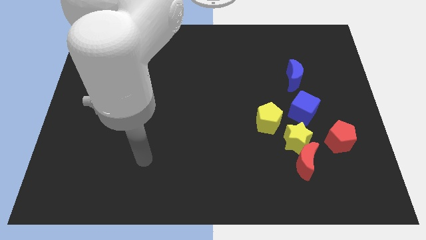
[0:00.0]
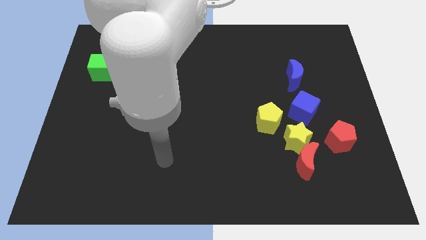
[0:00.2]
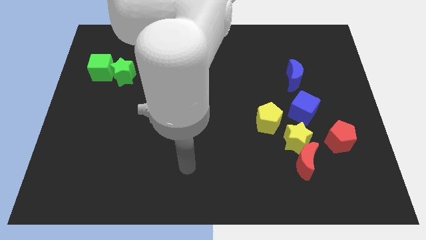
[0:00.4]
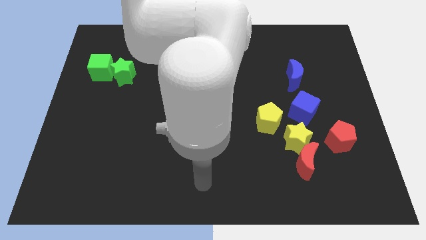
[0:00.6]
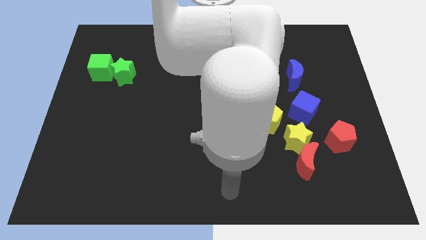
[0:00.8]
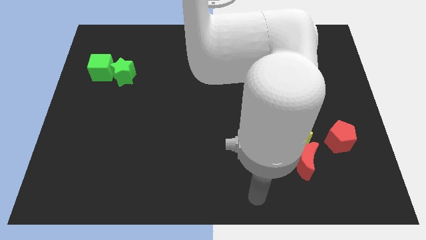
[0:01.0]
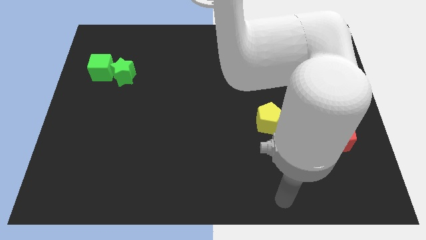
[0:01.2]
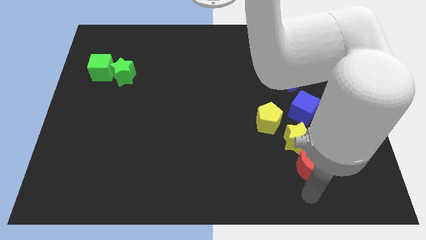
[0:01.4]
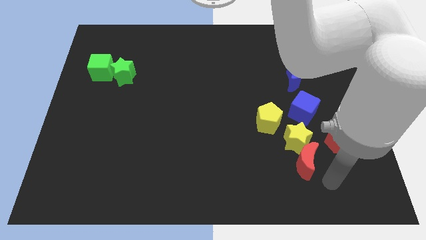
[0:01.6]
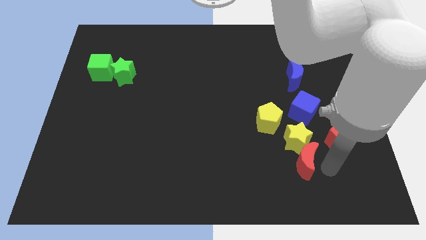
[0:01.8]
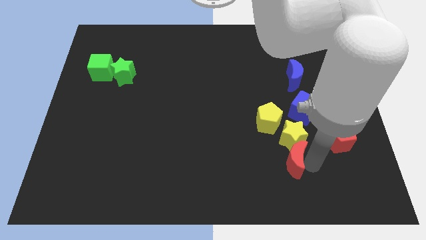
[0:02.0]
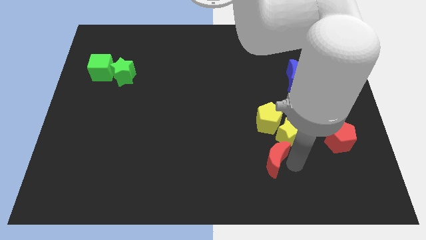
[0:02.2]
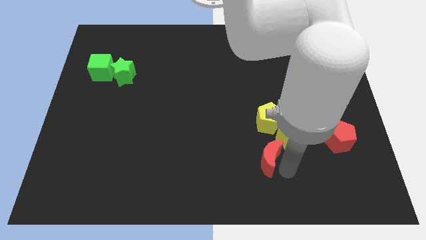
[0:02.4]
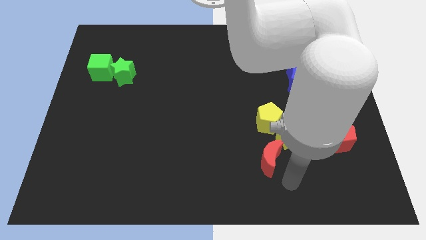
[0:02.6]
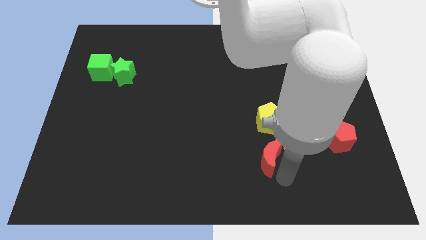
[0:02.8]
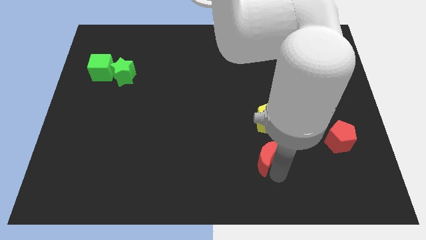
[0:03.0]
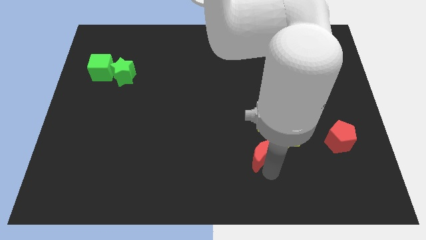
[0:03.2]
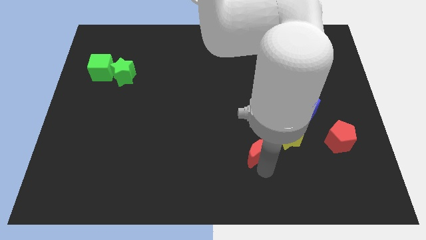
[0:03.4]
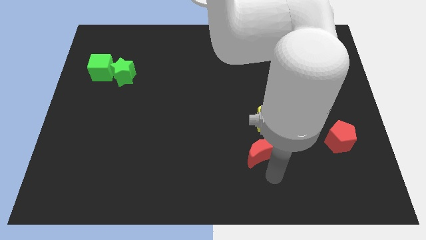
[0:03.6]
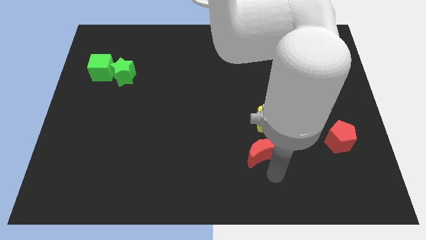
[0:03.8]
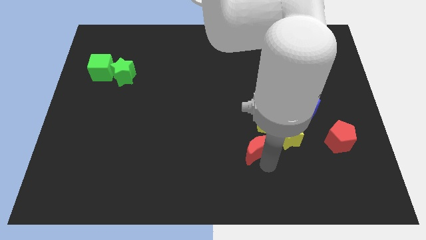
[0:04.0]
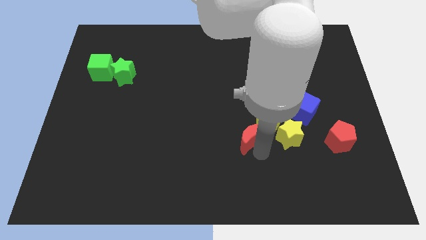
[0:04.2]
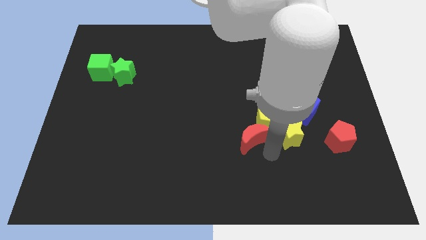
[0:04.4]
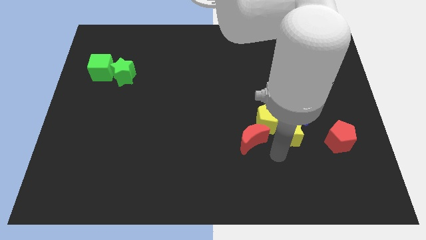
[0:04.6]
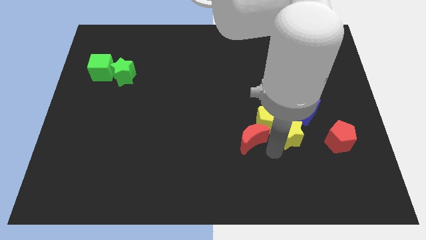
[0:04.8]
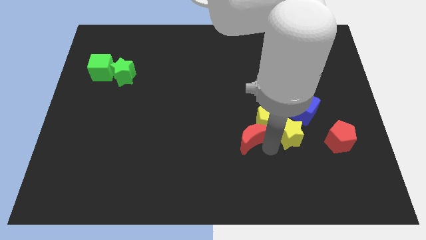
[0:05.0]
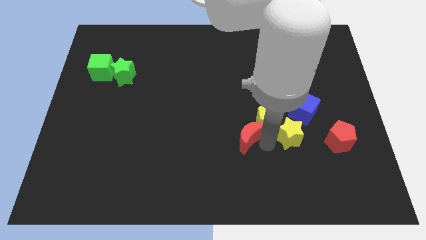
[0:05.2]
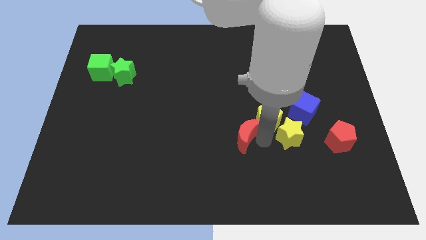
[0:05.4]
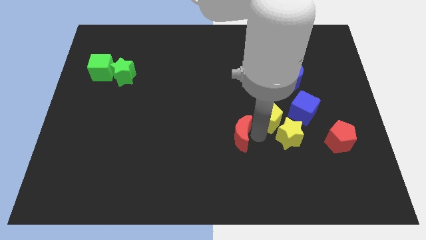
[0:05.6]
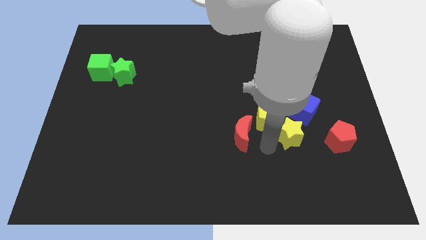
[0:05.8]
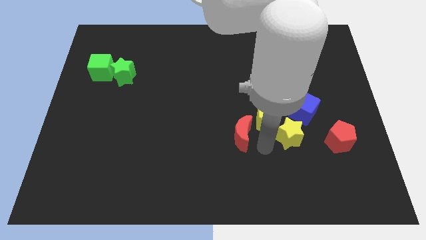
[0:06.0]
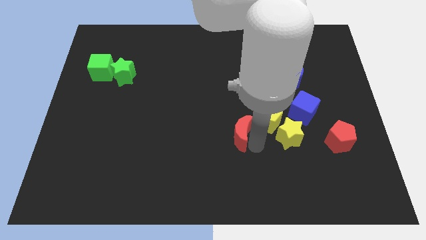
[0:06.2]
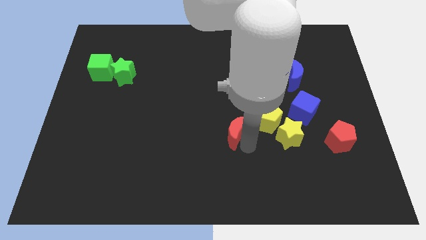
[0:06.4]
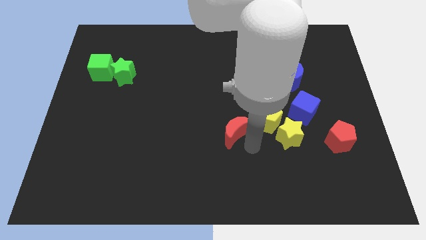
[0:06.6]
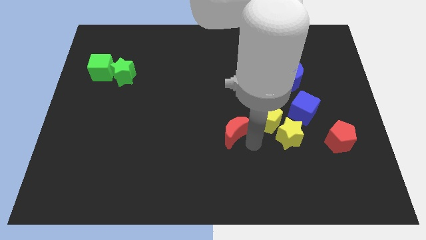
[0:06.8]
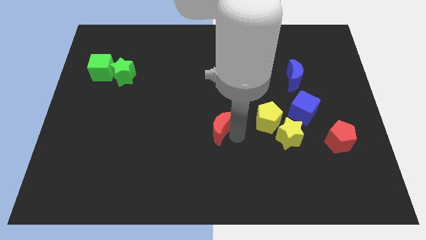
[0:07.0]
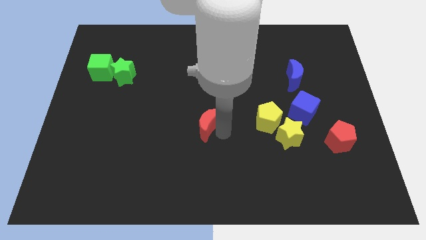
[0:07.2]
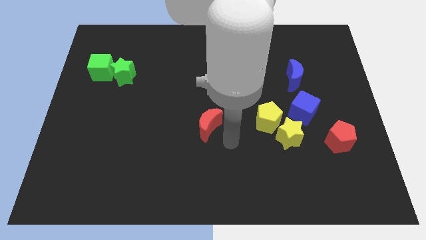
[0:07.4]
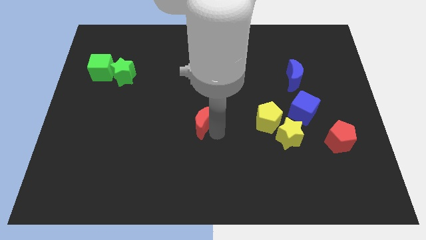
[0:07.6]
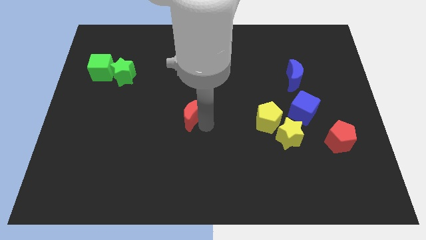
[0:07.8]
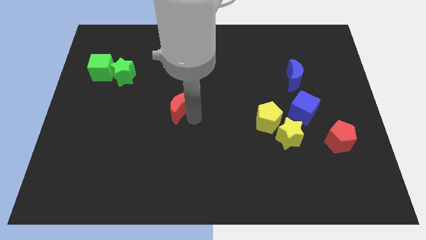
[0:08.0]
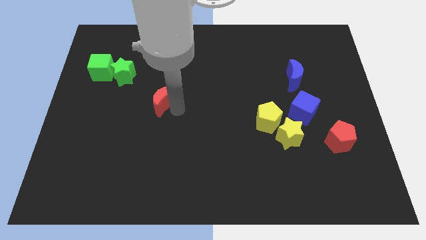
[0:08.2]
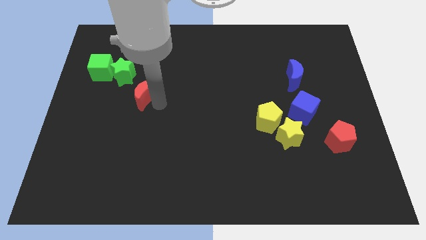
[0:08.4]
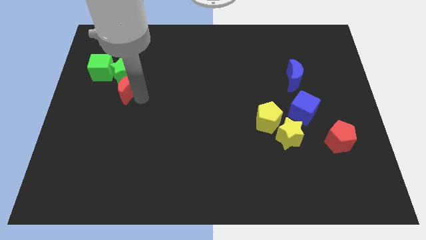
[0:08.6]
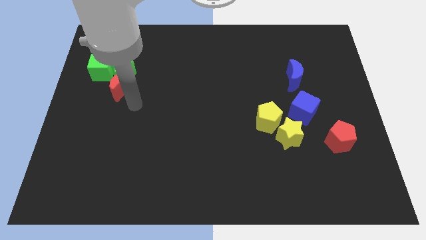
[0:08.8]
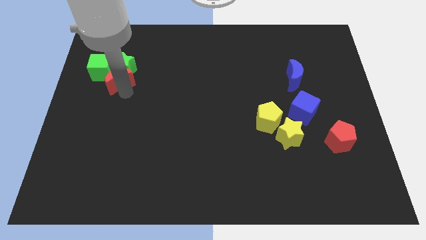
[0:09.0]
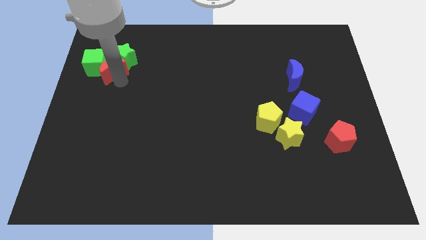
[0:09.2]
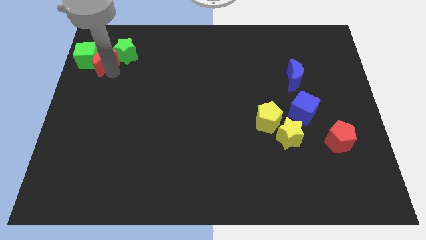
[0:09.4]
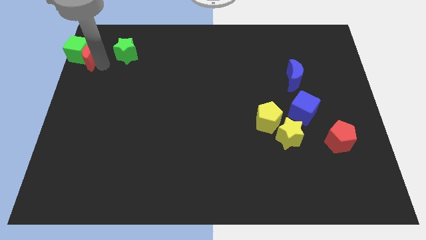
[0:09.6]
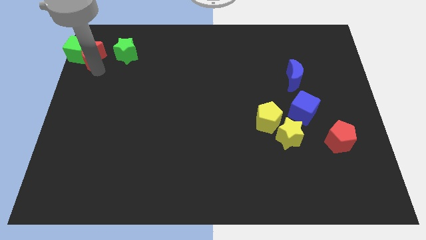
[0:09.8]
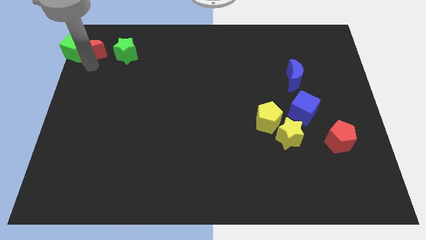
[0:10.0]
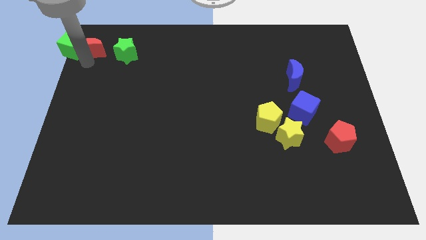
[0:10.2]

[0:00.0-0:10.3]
put the red moon to the top left corner

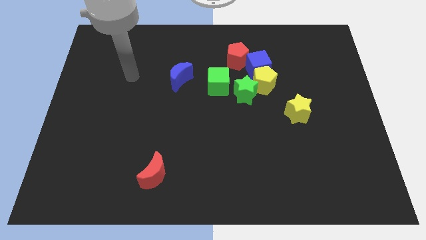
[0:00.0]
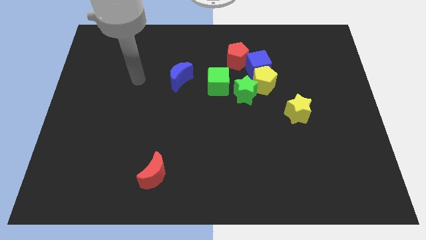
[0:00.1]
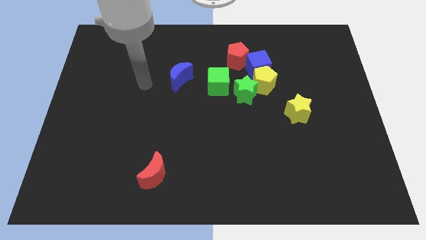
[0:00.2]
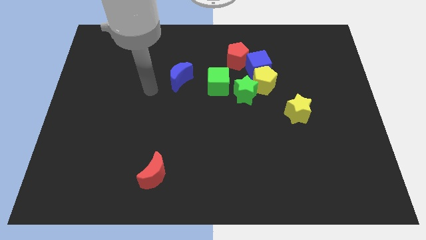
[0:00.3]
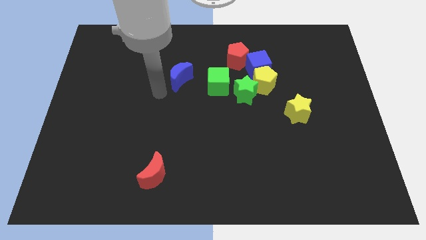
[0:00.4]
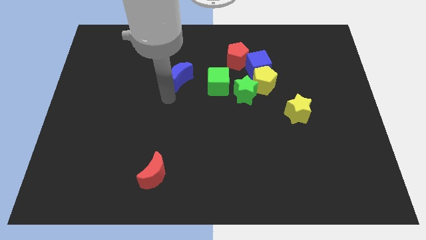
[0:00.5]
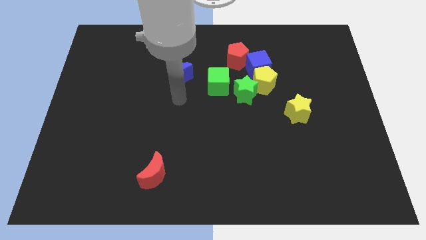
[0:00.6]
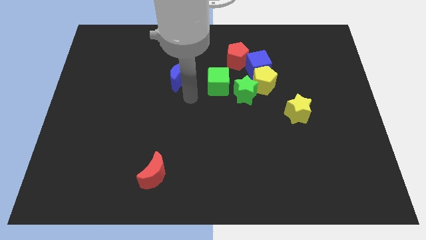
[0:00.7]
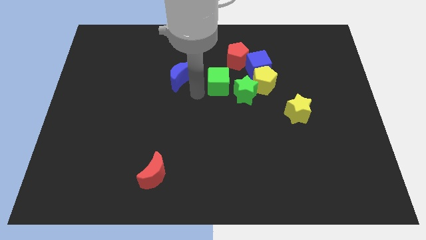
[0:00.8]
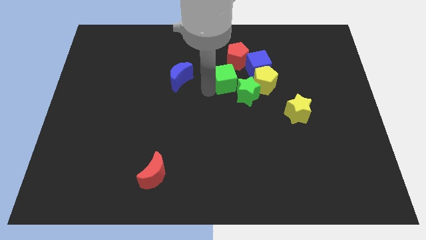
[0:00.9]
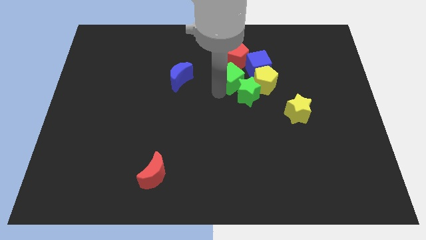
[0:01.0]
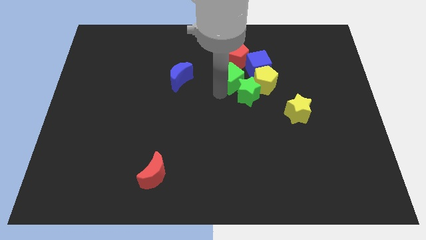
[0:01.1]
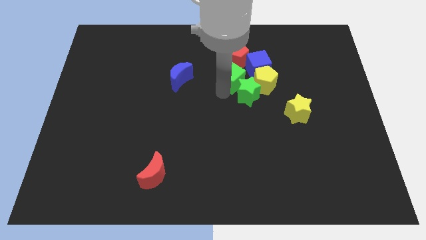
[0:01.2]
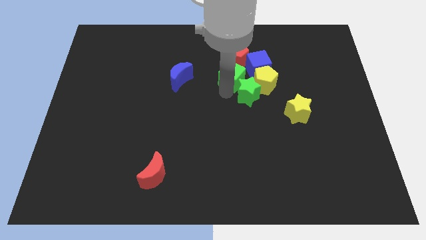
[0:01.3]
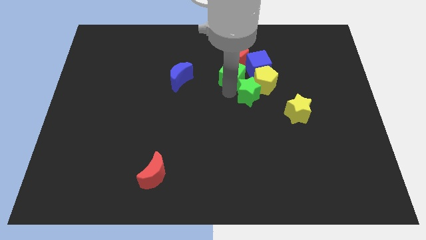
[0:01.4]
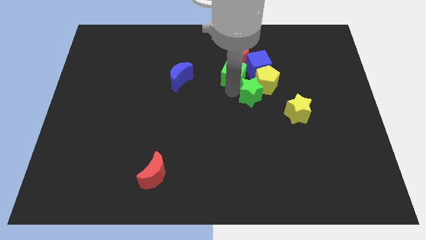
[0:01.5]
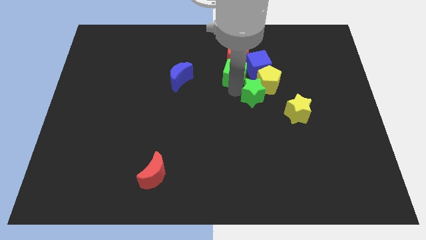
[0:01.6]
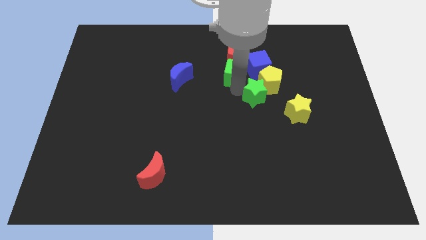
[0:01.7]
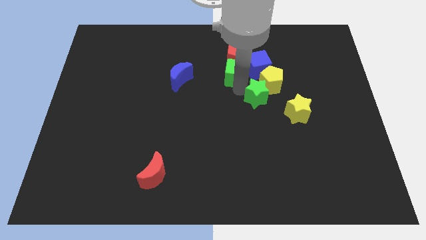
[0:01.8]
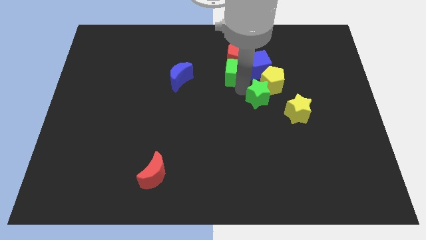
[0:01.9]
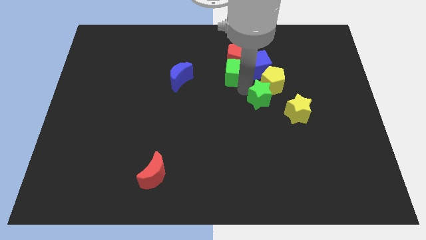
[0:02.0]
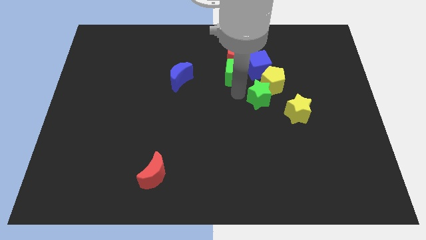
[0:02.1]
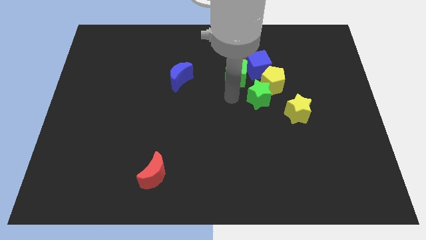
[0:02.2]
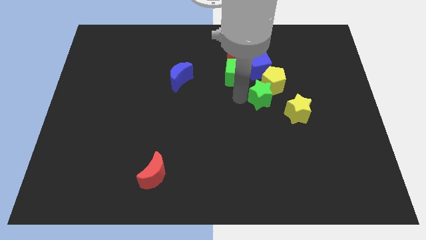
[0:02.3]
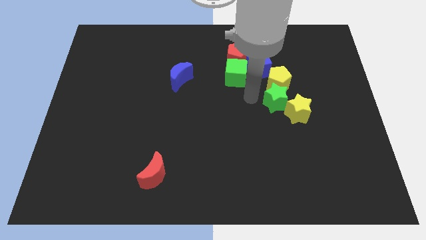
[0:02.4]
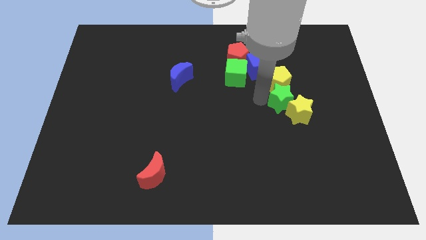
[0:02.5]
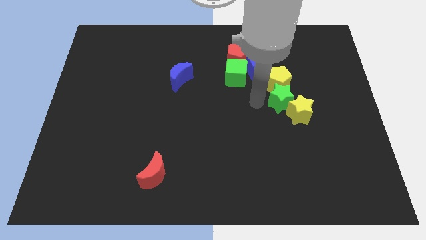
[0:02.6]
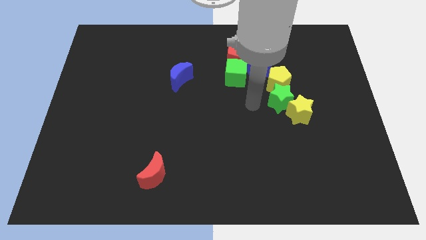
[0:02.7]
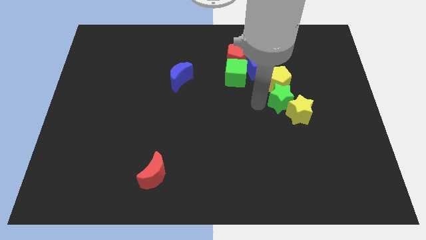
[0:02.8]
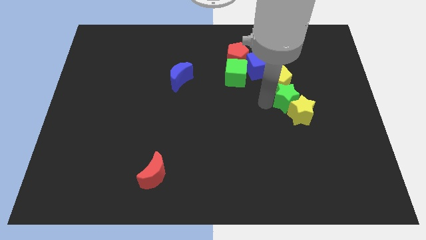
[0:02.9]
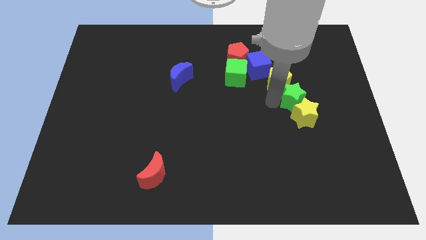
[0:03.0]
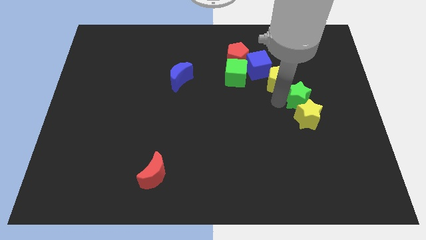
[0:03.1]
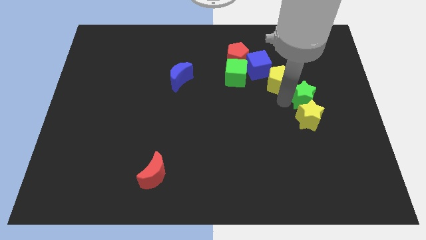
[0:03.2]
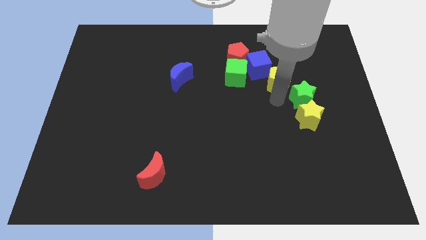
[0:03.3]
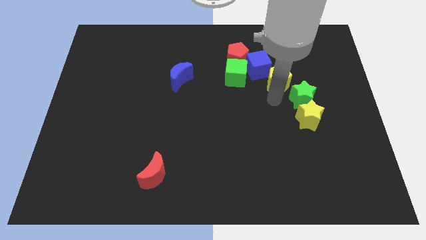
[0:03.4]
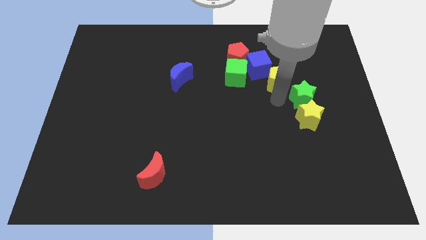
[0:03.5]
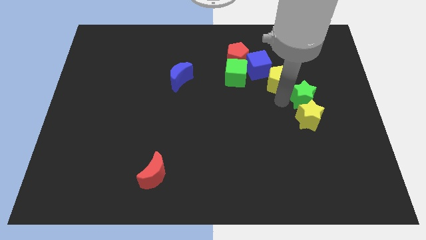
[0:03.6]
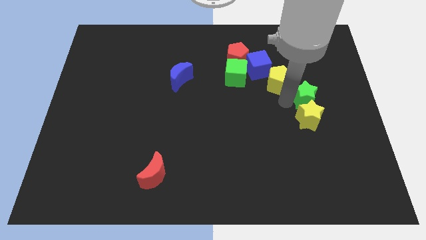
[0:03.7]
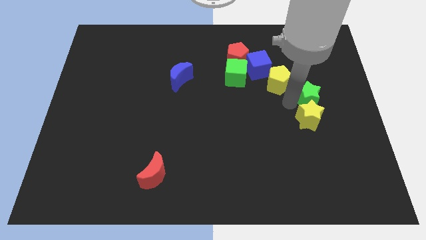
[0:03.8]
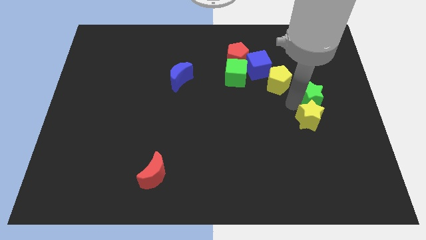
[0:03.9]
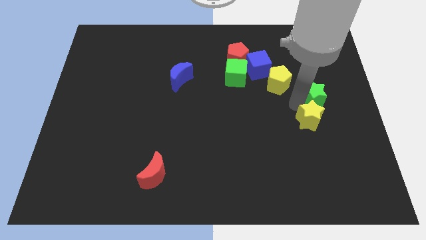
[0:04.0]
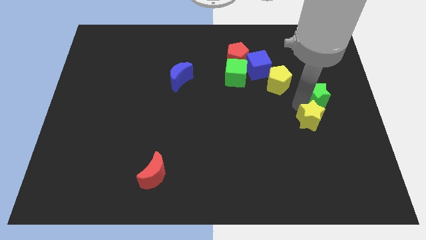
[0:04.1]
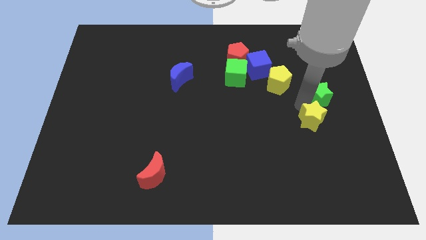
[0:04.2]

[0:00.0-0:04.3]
slide the green star to the center right
